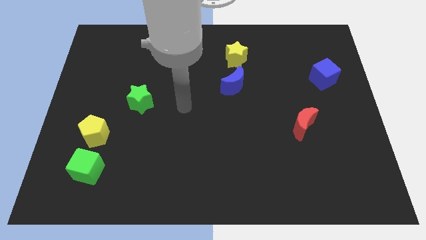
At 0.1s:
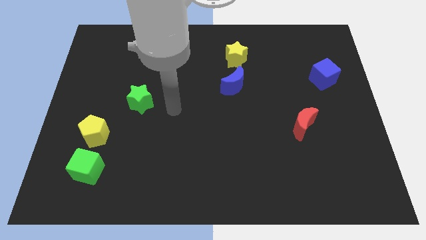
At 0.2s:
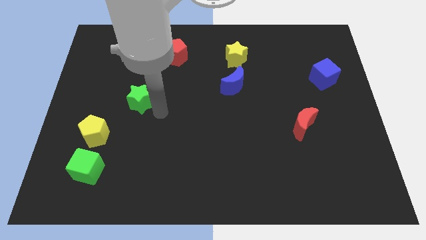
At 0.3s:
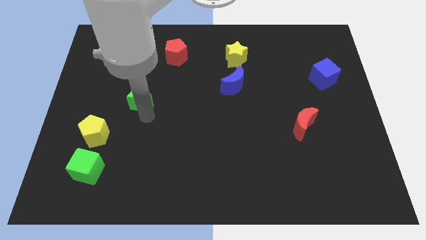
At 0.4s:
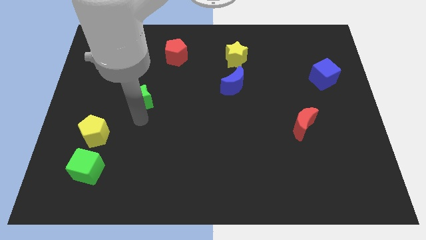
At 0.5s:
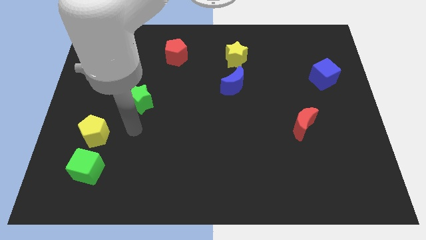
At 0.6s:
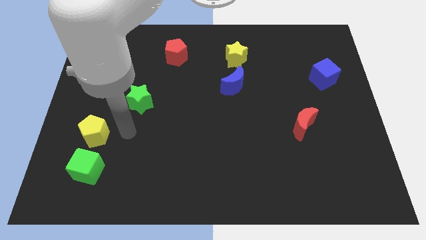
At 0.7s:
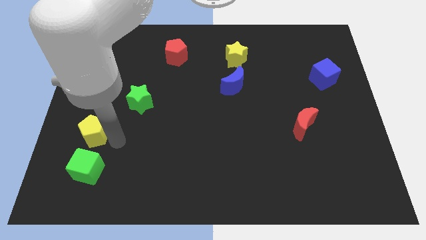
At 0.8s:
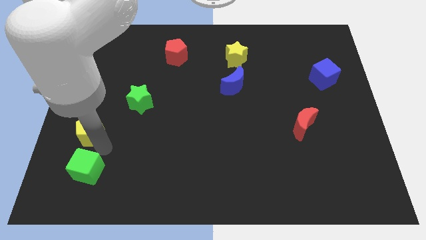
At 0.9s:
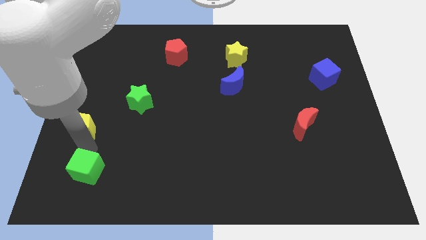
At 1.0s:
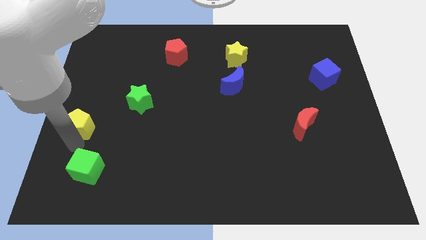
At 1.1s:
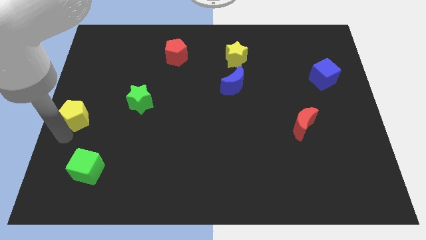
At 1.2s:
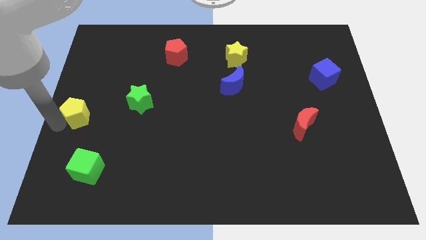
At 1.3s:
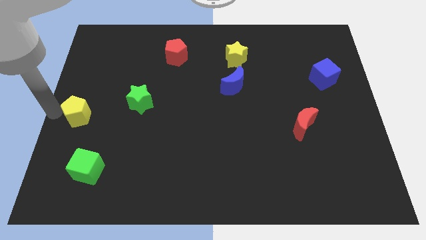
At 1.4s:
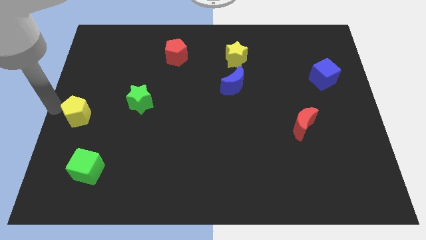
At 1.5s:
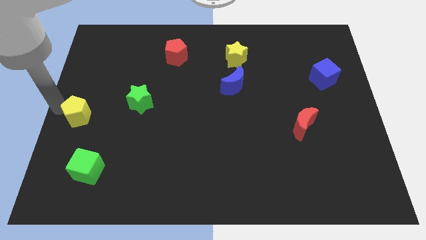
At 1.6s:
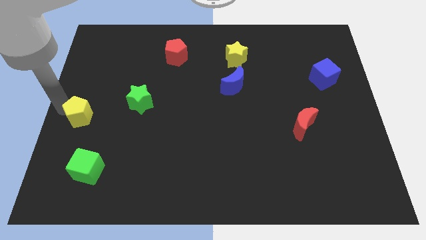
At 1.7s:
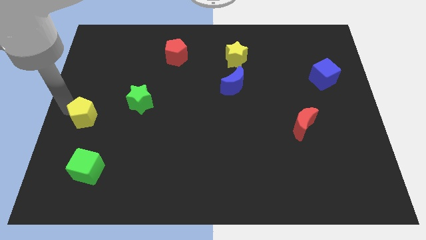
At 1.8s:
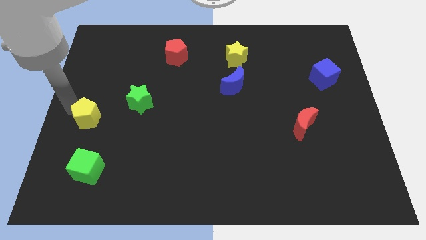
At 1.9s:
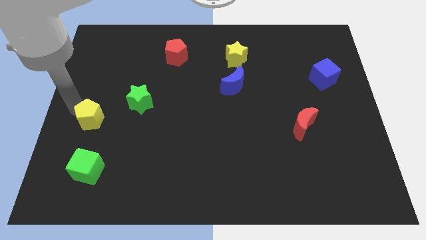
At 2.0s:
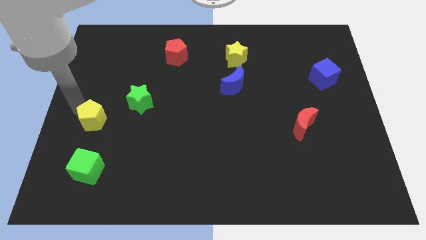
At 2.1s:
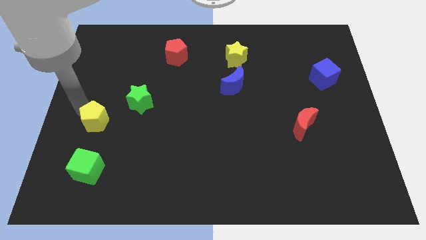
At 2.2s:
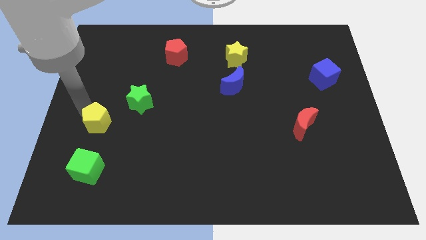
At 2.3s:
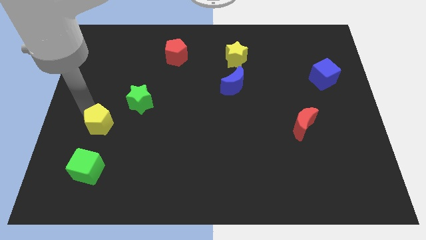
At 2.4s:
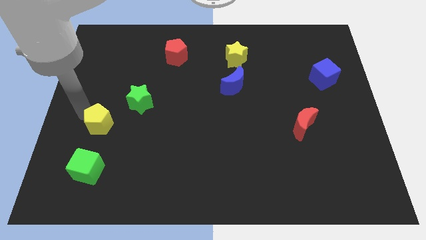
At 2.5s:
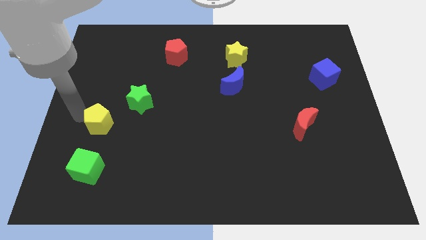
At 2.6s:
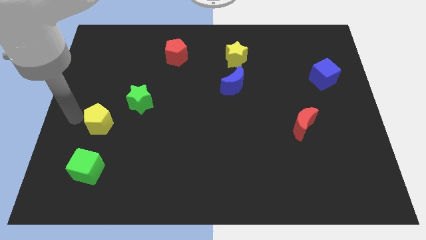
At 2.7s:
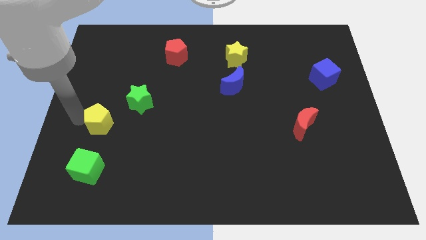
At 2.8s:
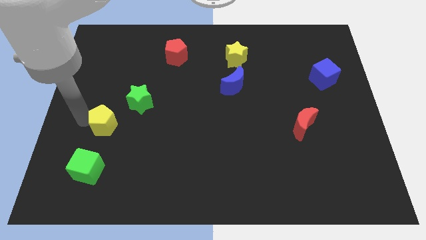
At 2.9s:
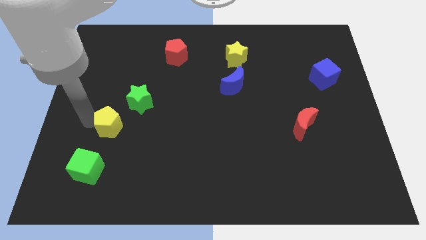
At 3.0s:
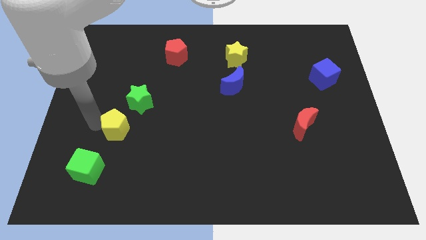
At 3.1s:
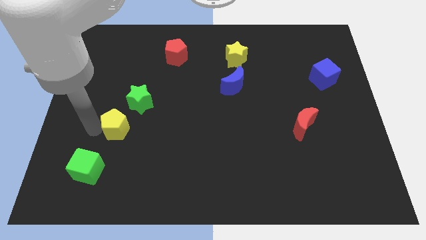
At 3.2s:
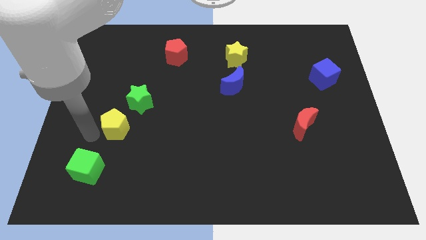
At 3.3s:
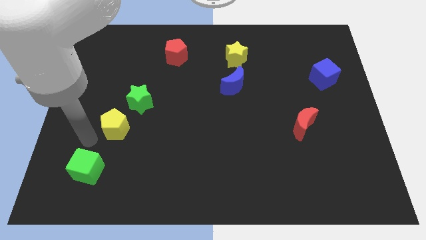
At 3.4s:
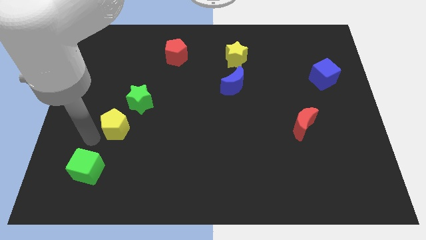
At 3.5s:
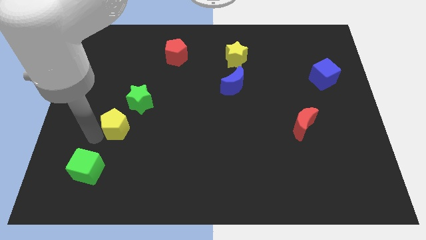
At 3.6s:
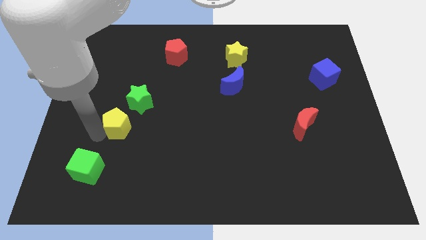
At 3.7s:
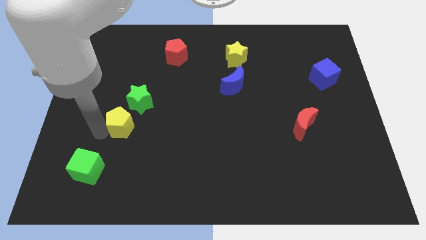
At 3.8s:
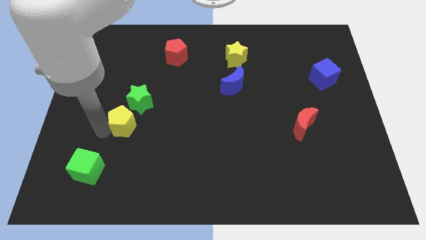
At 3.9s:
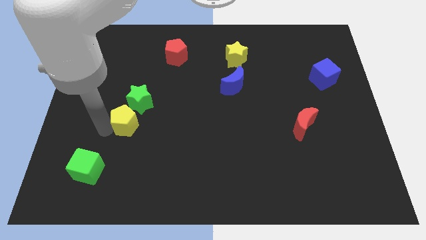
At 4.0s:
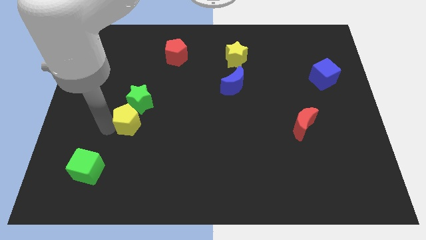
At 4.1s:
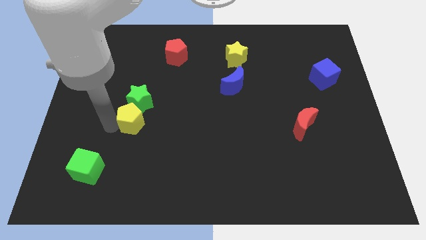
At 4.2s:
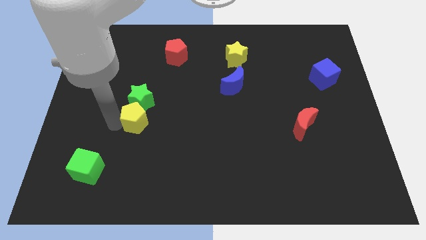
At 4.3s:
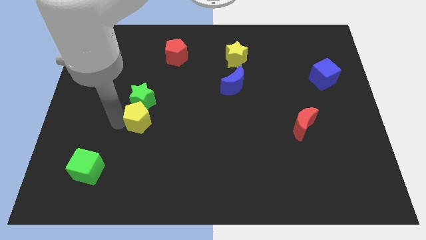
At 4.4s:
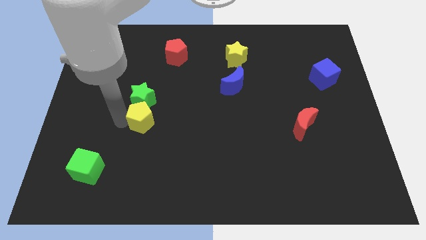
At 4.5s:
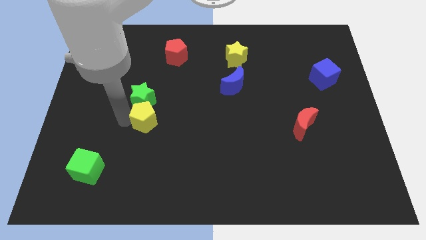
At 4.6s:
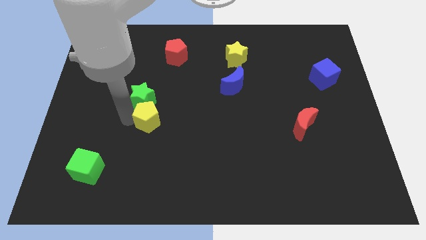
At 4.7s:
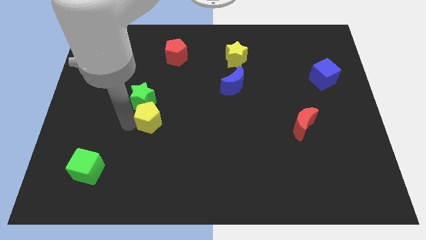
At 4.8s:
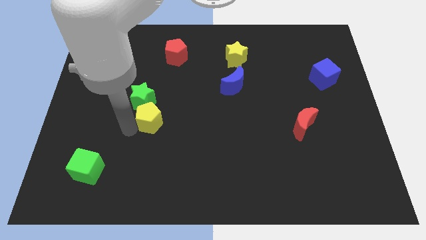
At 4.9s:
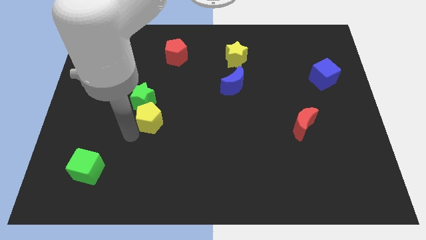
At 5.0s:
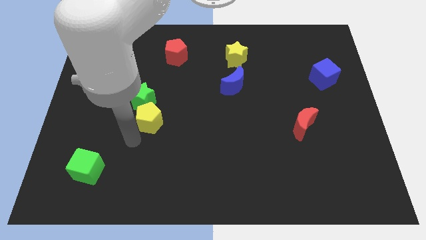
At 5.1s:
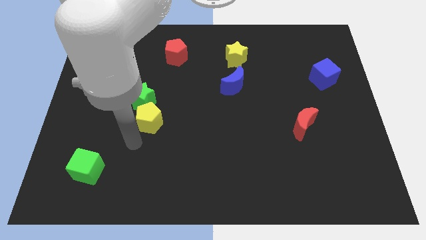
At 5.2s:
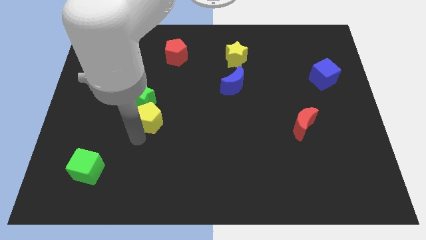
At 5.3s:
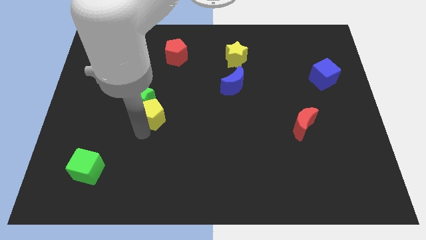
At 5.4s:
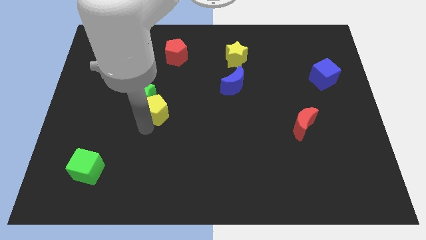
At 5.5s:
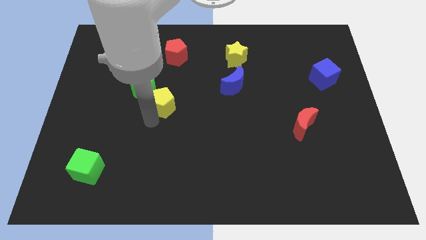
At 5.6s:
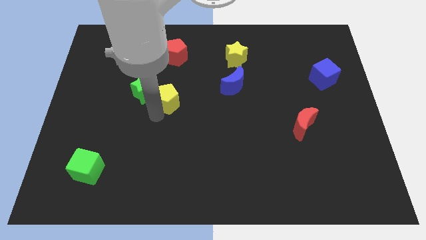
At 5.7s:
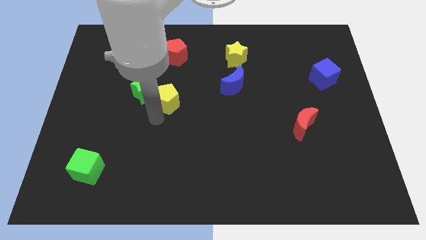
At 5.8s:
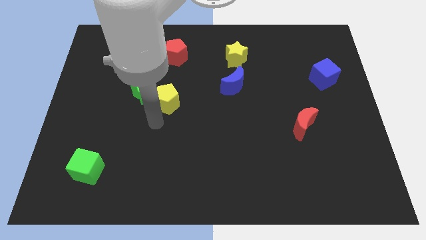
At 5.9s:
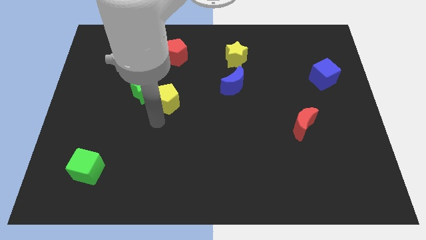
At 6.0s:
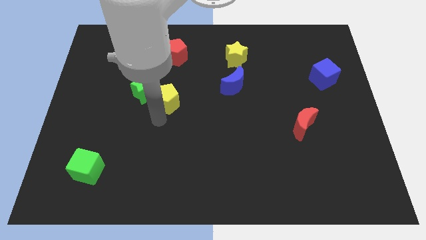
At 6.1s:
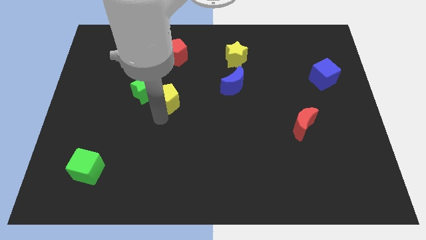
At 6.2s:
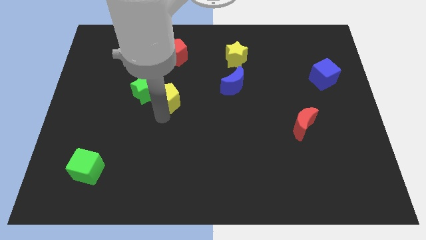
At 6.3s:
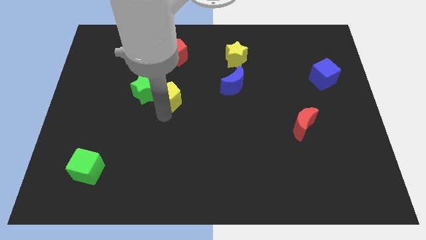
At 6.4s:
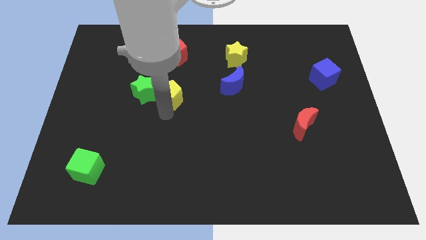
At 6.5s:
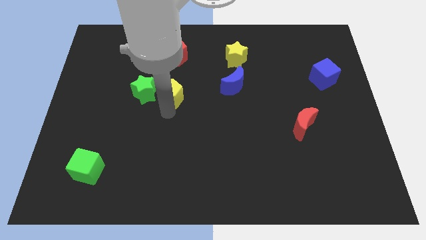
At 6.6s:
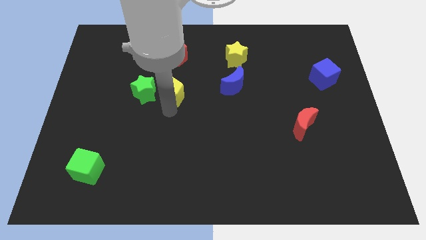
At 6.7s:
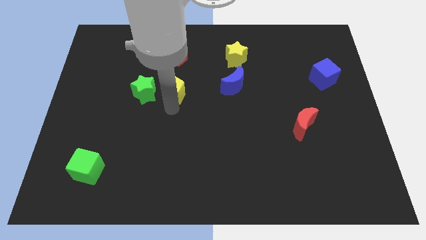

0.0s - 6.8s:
push the yellow pentagon up and then right

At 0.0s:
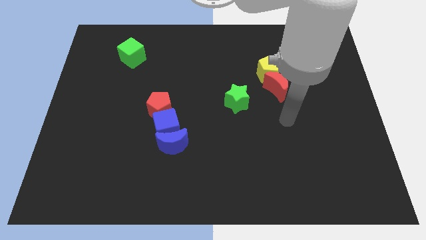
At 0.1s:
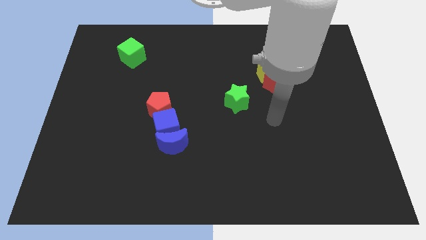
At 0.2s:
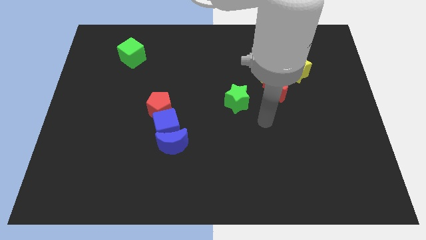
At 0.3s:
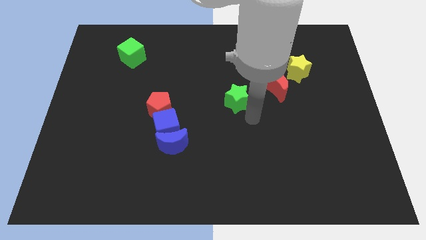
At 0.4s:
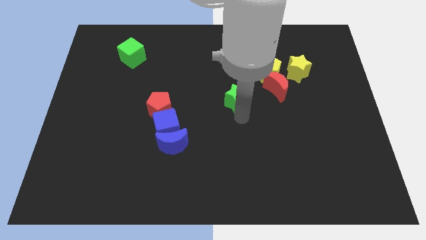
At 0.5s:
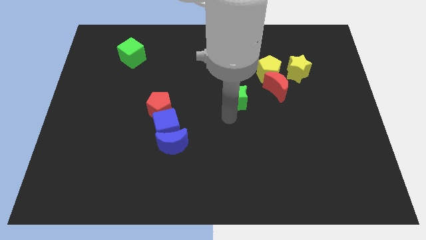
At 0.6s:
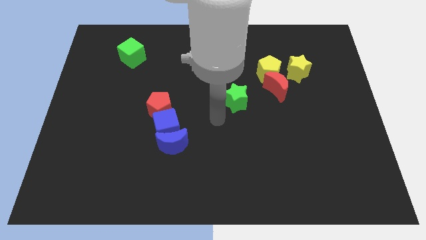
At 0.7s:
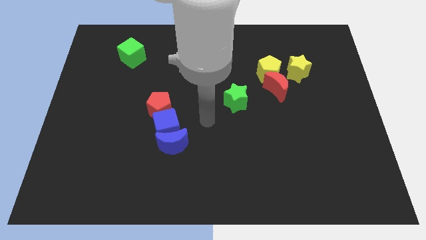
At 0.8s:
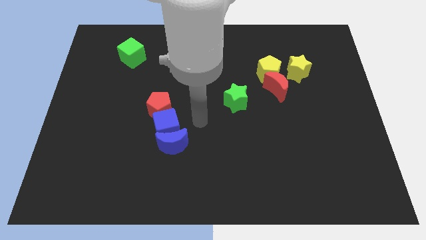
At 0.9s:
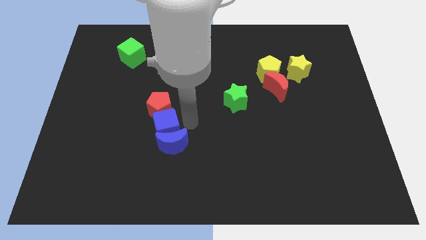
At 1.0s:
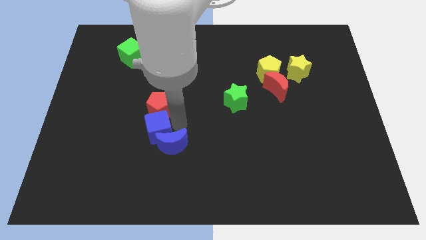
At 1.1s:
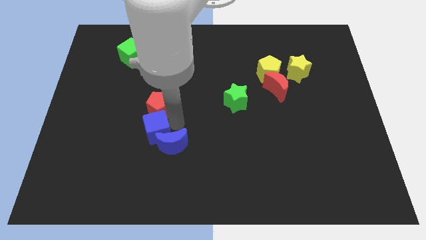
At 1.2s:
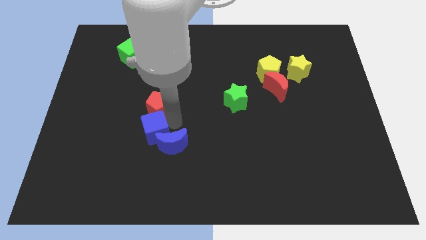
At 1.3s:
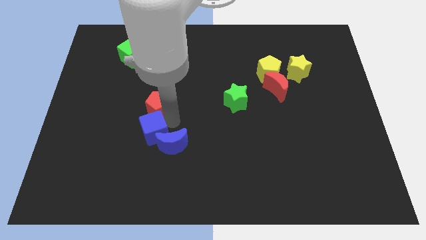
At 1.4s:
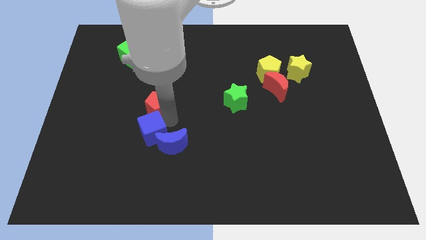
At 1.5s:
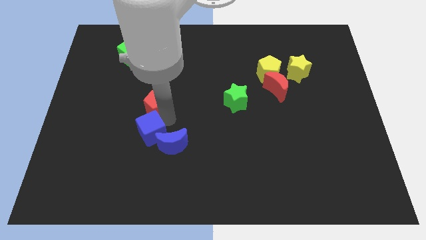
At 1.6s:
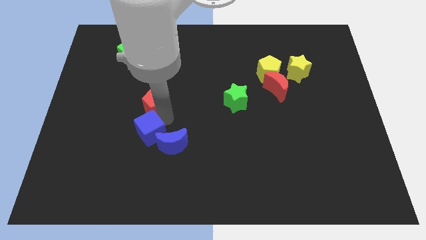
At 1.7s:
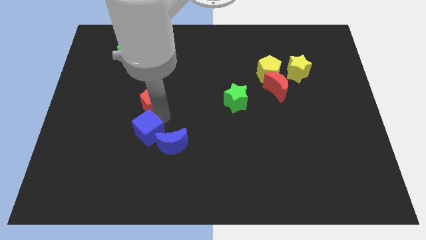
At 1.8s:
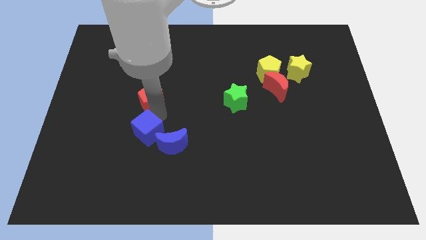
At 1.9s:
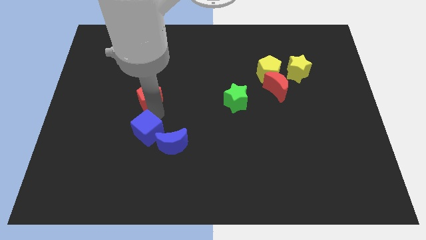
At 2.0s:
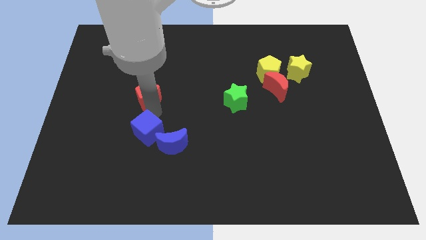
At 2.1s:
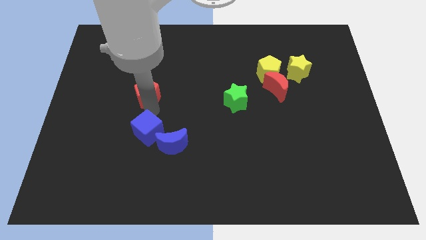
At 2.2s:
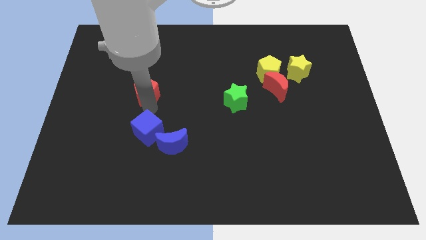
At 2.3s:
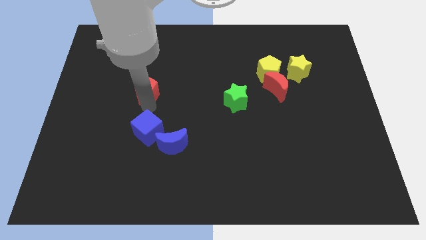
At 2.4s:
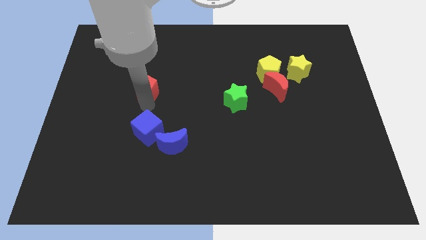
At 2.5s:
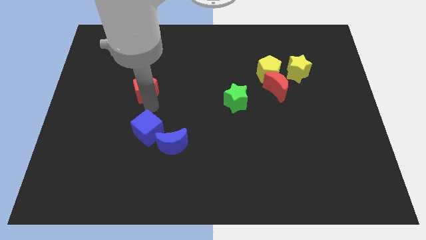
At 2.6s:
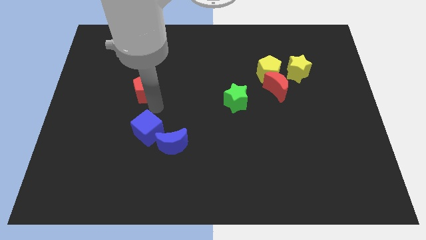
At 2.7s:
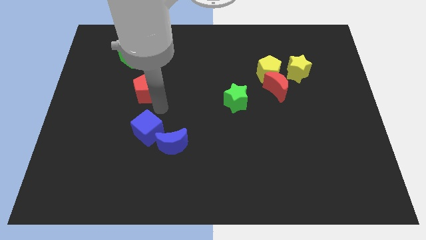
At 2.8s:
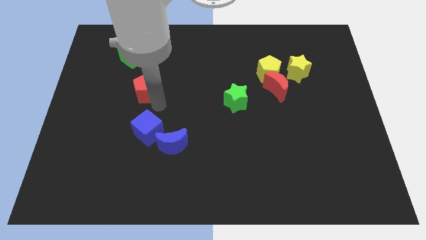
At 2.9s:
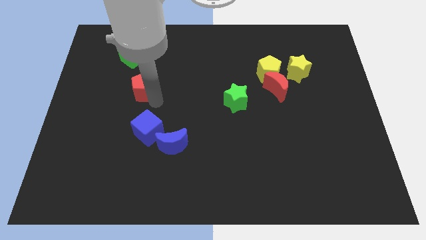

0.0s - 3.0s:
slightly move the red pentagon diagonally upwards and to the left
